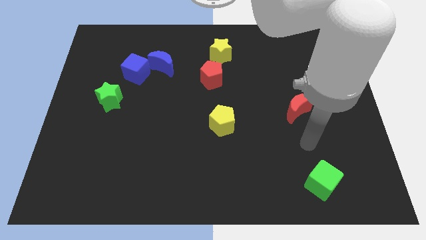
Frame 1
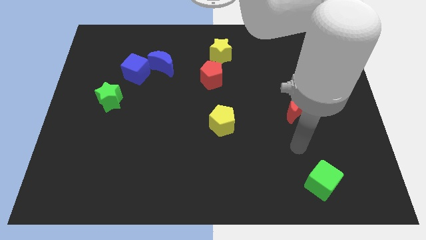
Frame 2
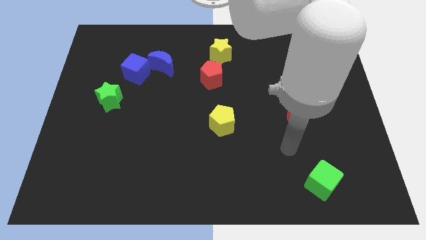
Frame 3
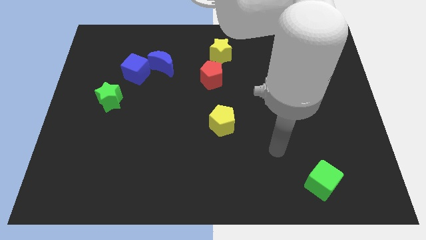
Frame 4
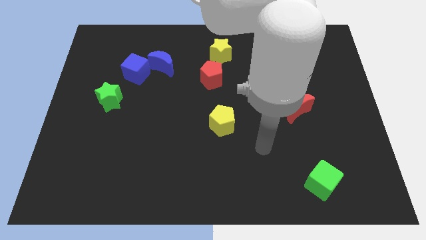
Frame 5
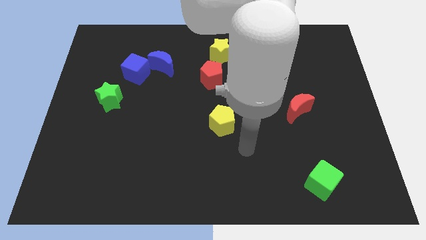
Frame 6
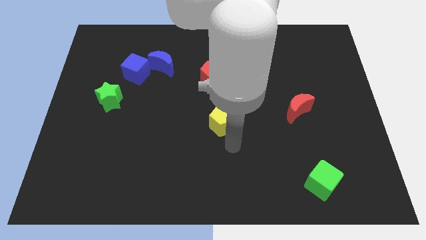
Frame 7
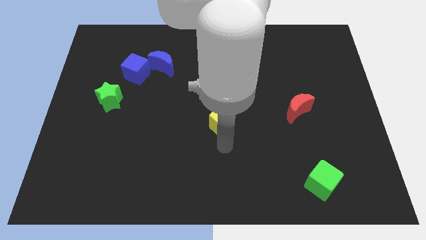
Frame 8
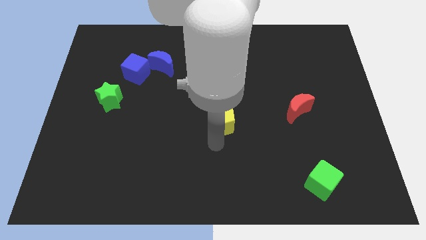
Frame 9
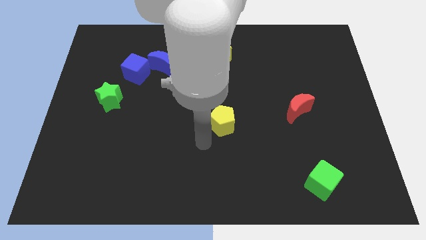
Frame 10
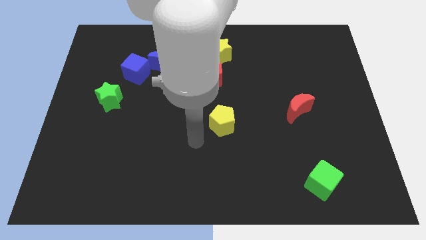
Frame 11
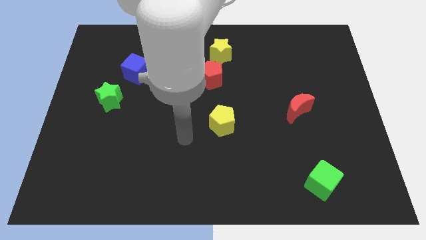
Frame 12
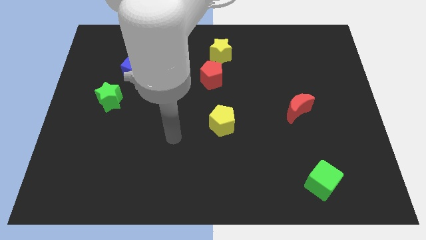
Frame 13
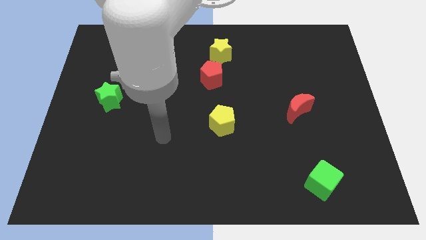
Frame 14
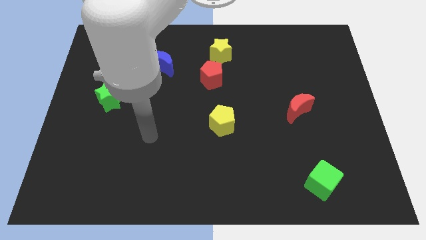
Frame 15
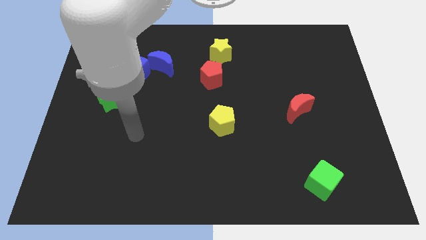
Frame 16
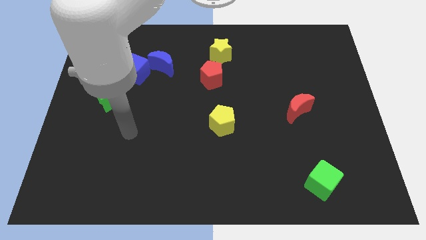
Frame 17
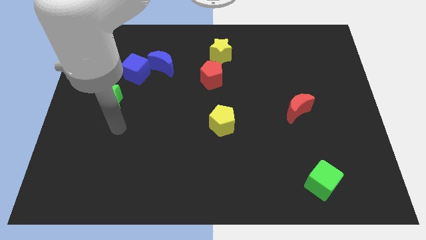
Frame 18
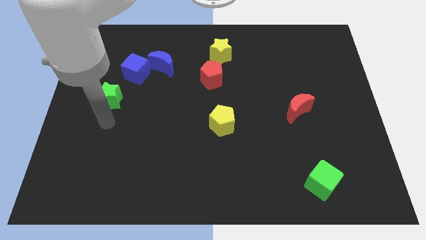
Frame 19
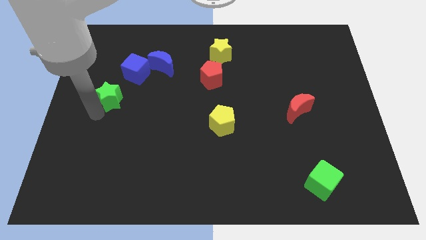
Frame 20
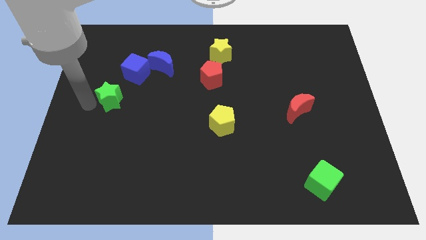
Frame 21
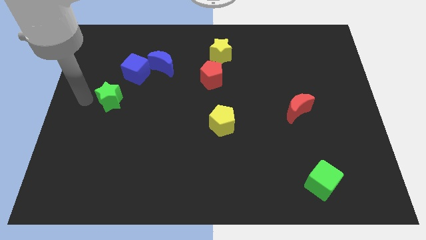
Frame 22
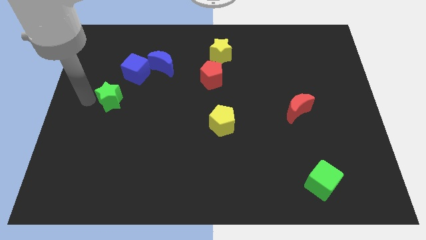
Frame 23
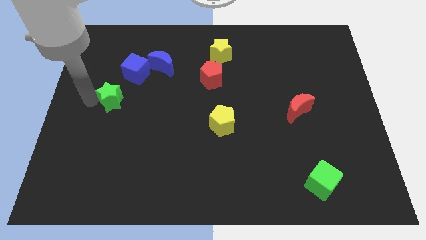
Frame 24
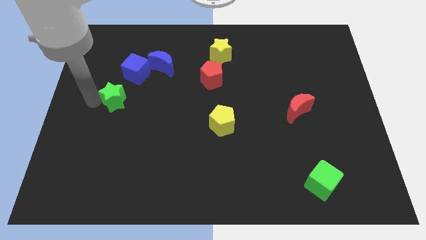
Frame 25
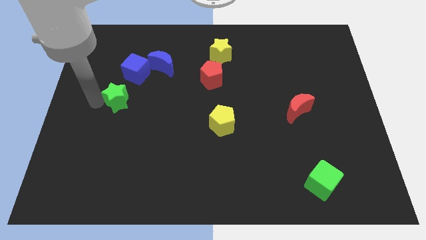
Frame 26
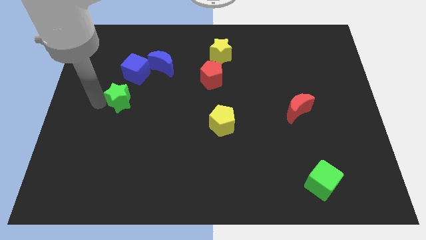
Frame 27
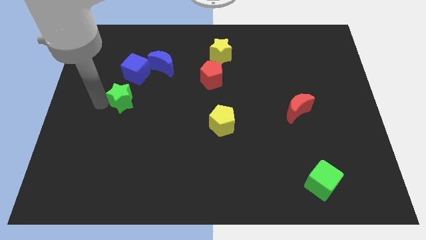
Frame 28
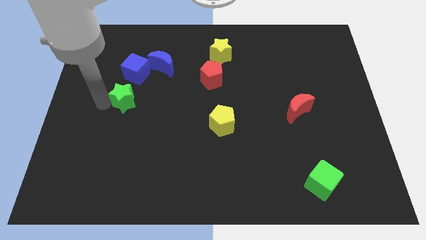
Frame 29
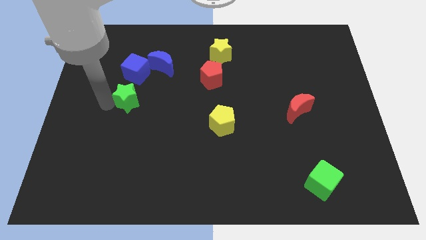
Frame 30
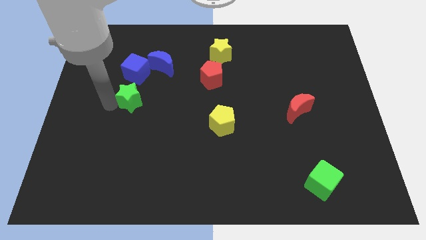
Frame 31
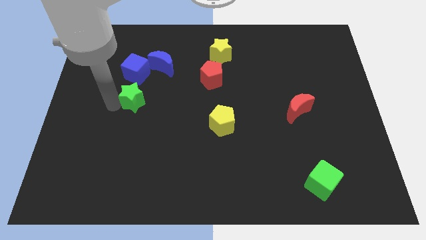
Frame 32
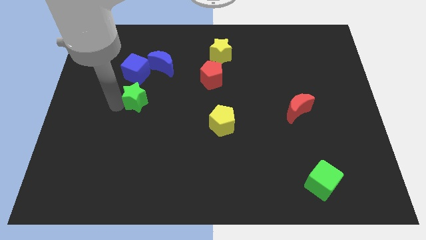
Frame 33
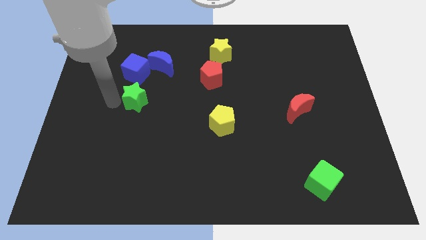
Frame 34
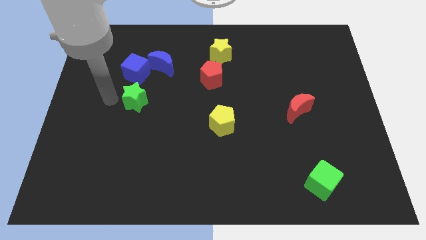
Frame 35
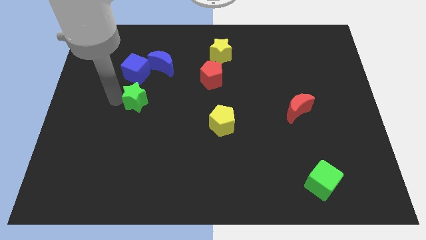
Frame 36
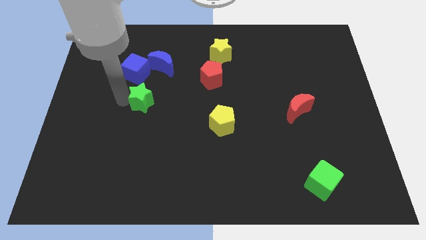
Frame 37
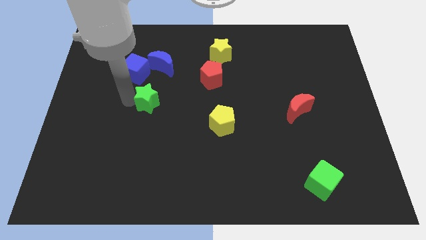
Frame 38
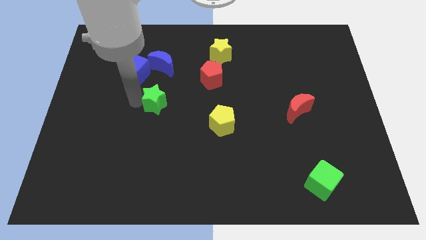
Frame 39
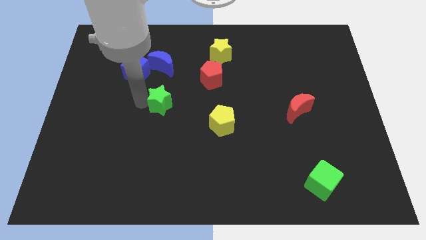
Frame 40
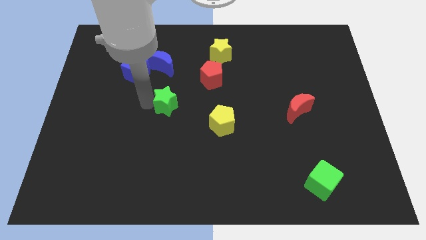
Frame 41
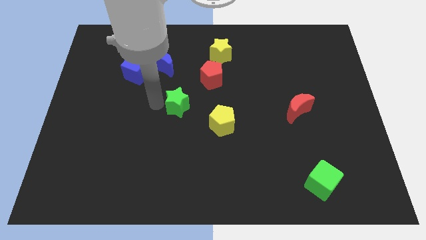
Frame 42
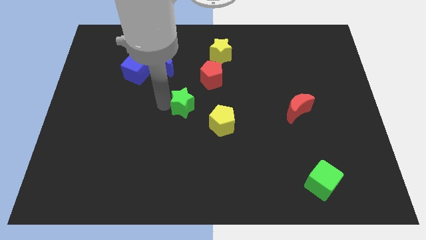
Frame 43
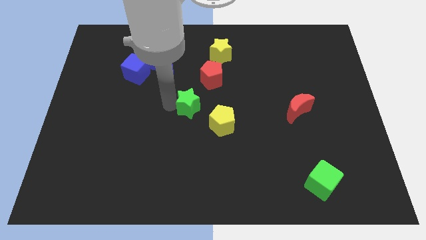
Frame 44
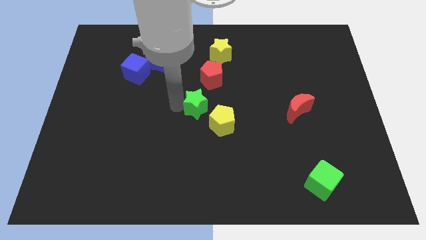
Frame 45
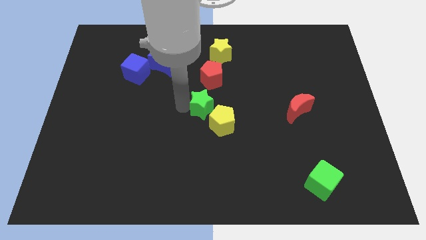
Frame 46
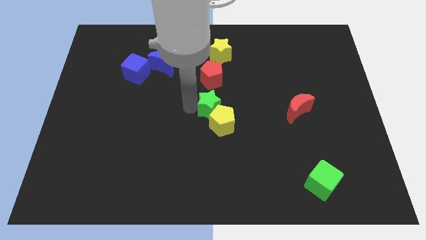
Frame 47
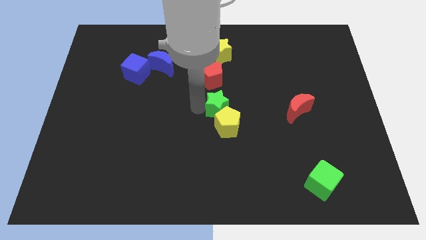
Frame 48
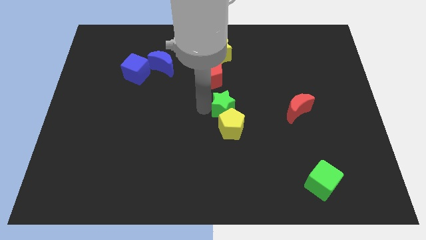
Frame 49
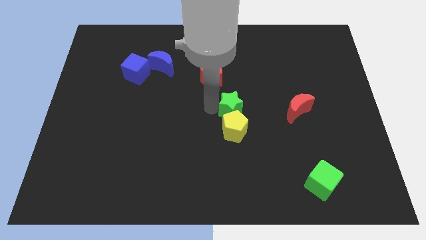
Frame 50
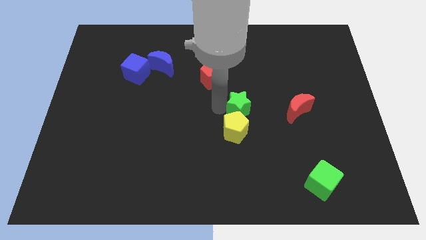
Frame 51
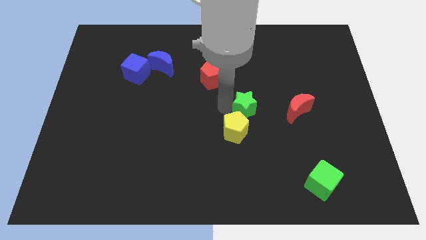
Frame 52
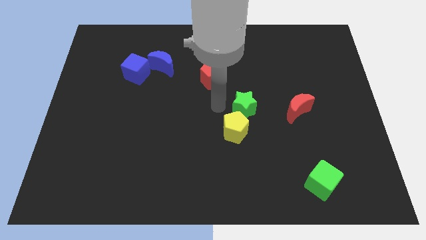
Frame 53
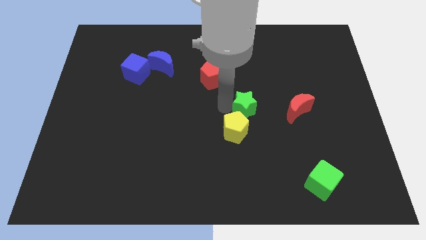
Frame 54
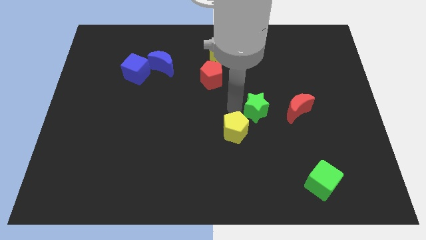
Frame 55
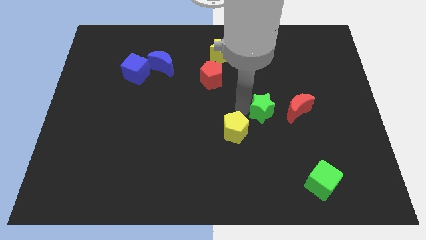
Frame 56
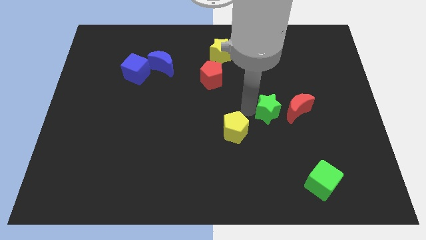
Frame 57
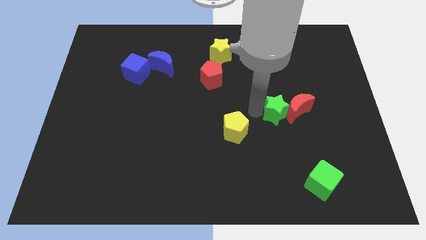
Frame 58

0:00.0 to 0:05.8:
push the green star close to the red moon
